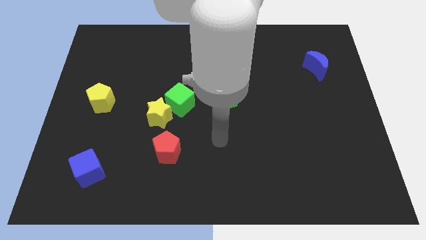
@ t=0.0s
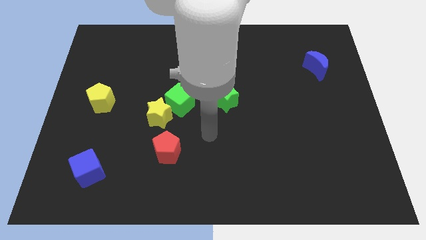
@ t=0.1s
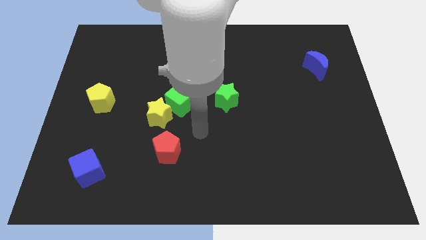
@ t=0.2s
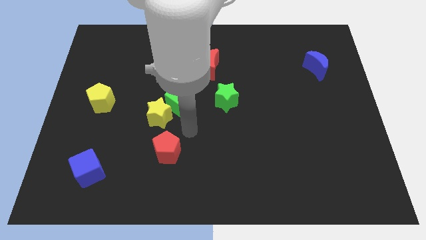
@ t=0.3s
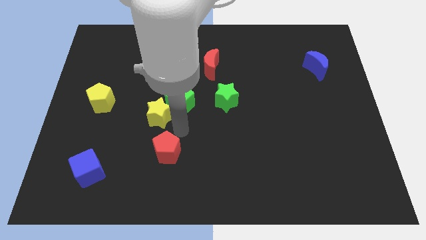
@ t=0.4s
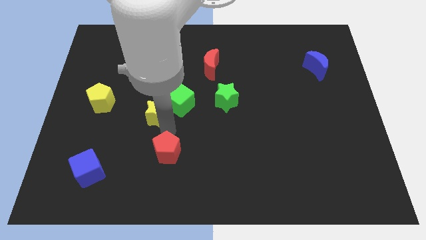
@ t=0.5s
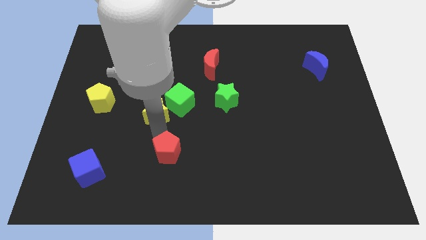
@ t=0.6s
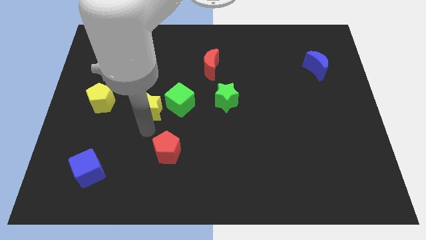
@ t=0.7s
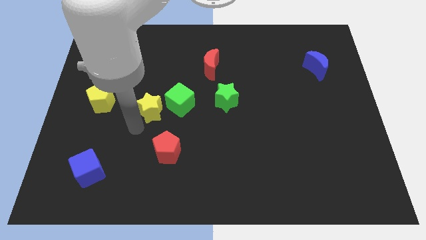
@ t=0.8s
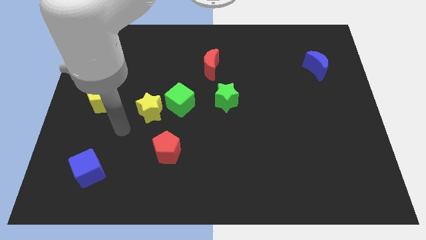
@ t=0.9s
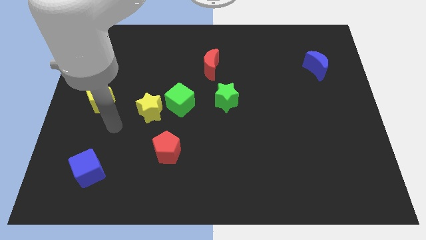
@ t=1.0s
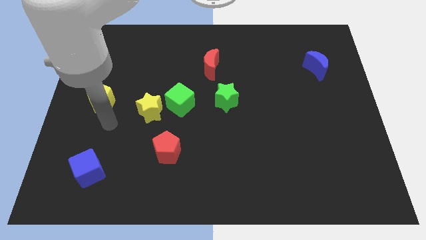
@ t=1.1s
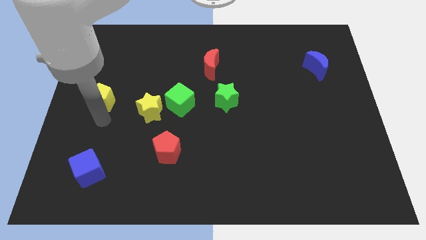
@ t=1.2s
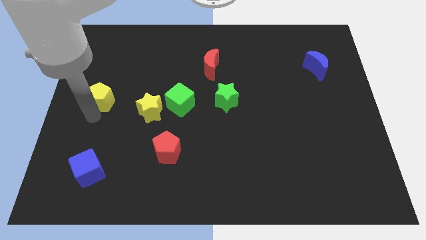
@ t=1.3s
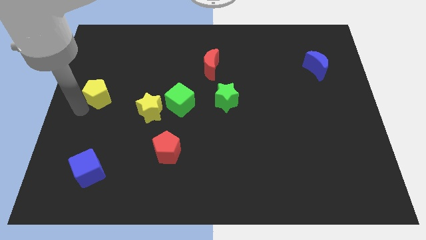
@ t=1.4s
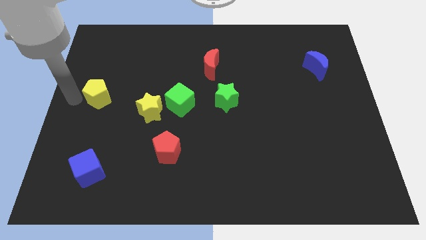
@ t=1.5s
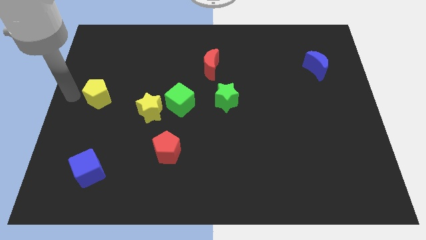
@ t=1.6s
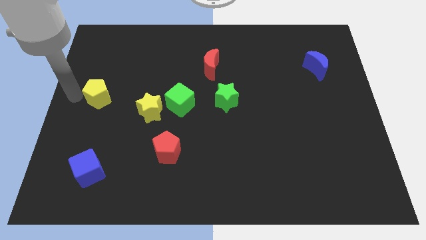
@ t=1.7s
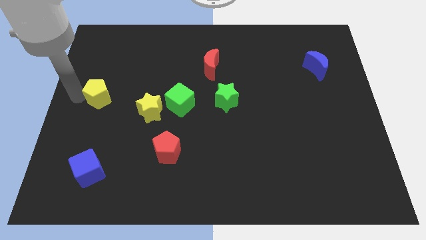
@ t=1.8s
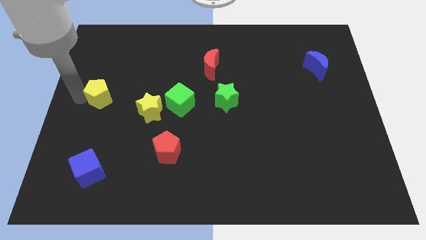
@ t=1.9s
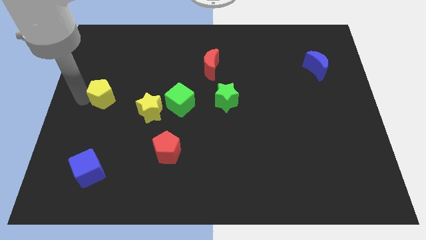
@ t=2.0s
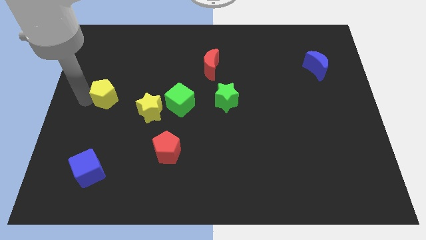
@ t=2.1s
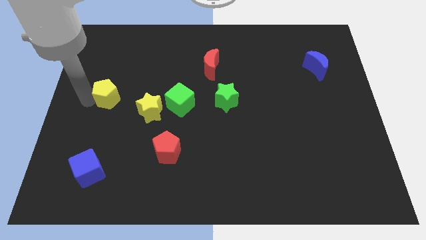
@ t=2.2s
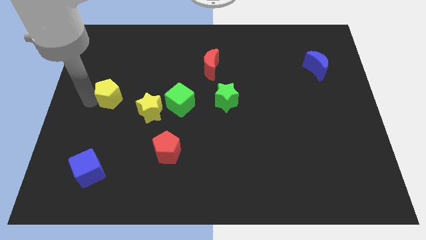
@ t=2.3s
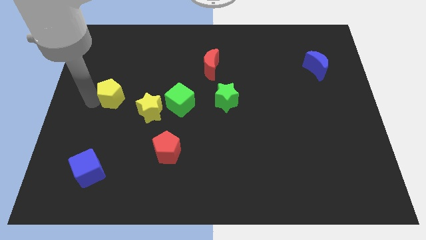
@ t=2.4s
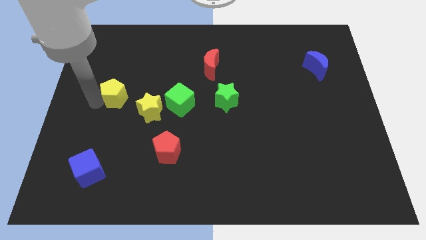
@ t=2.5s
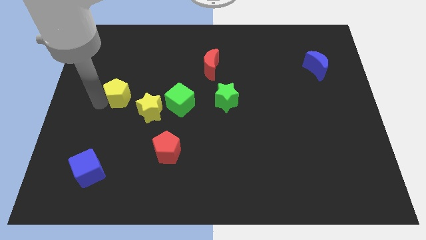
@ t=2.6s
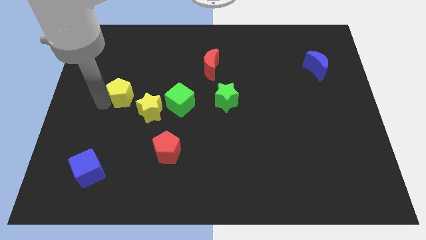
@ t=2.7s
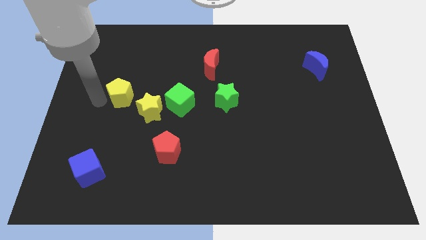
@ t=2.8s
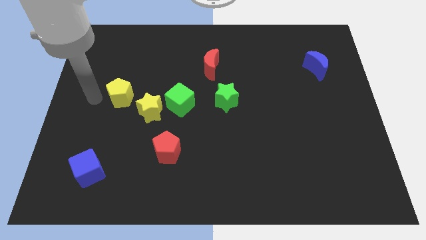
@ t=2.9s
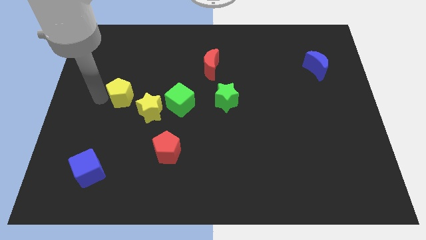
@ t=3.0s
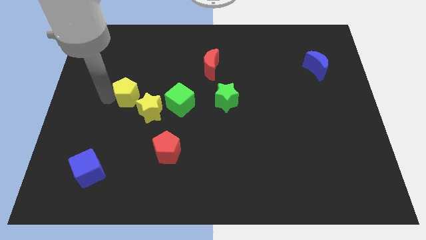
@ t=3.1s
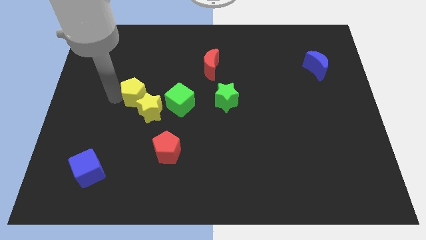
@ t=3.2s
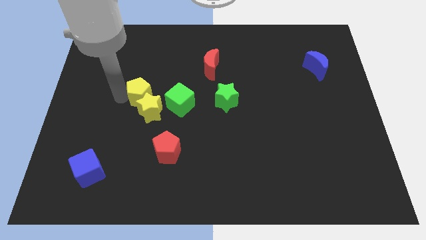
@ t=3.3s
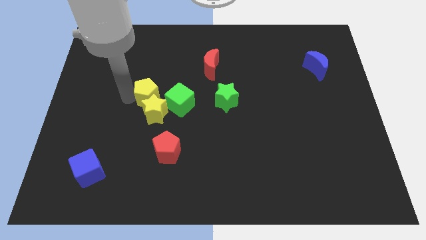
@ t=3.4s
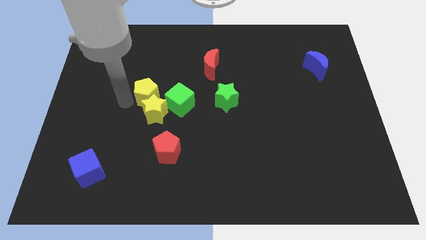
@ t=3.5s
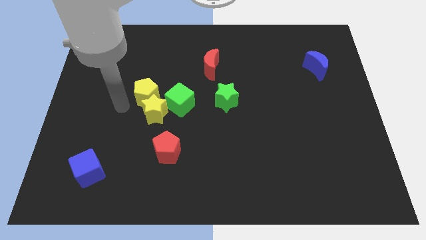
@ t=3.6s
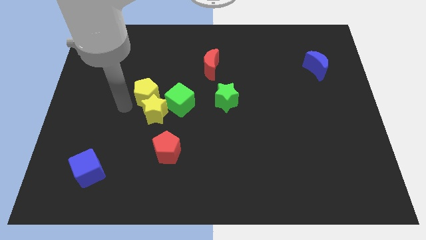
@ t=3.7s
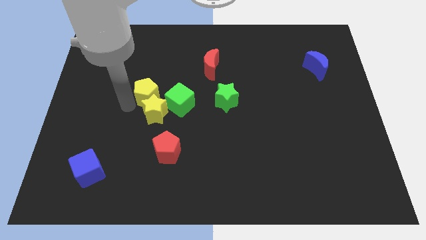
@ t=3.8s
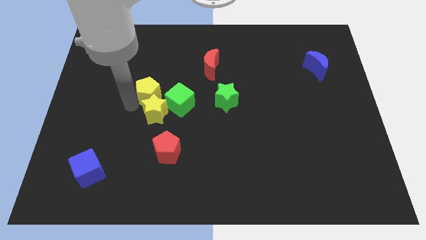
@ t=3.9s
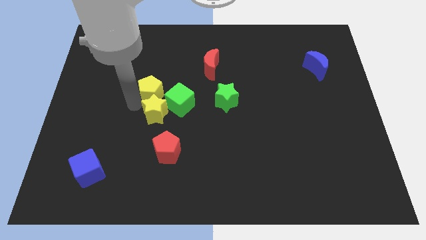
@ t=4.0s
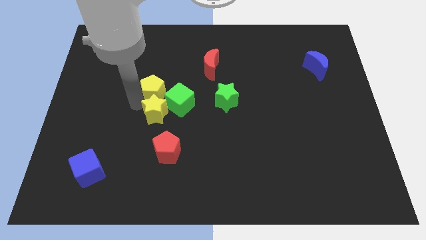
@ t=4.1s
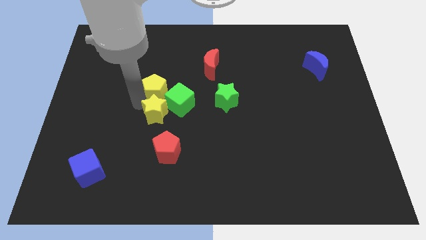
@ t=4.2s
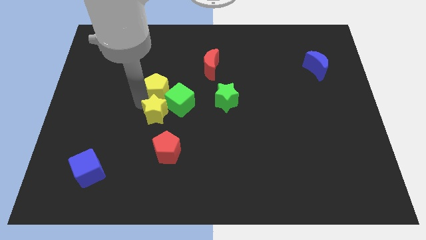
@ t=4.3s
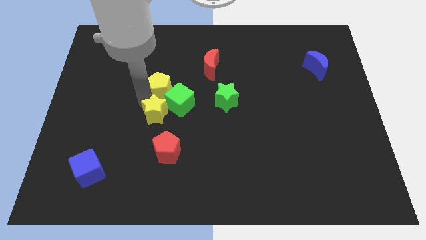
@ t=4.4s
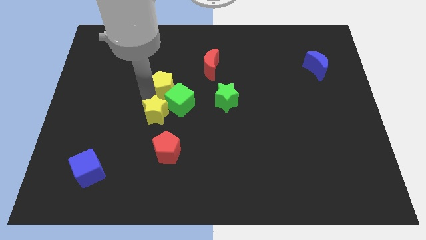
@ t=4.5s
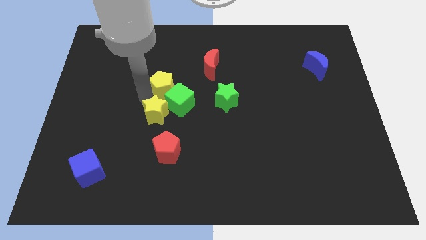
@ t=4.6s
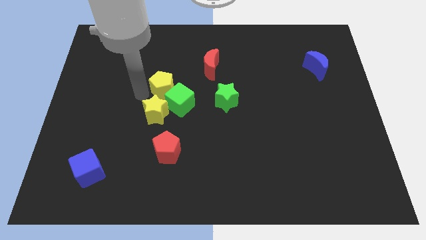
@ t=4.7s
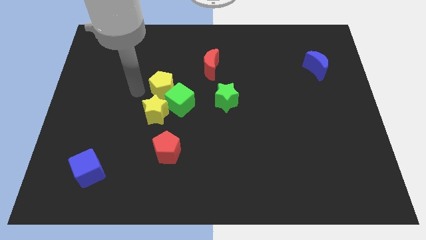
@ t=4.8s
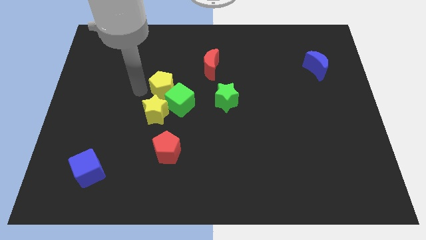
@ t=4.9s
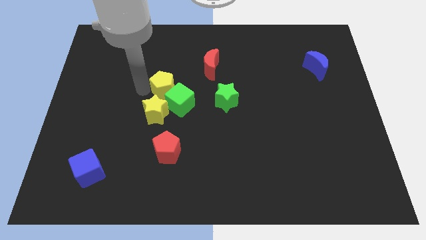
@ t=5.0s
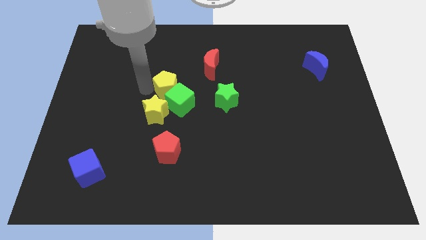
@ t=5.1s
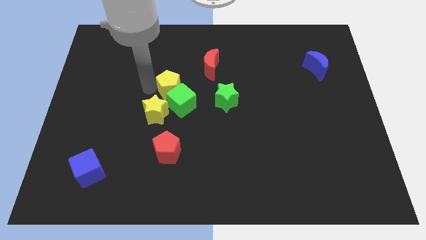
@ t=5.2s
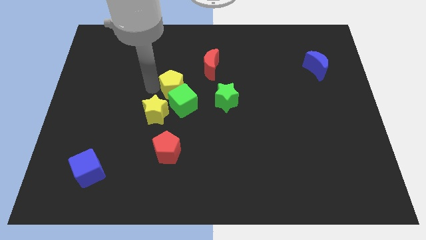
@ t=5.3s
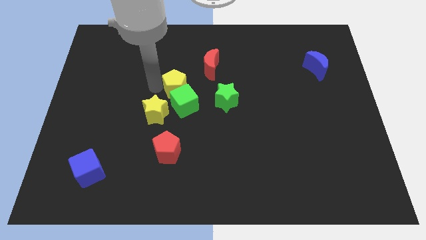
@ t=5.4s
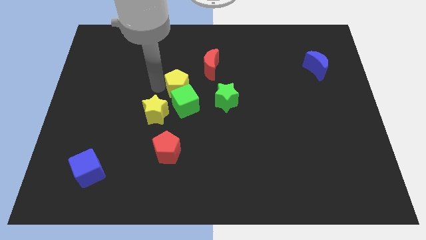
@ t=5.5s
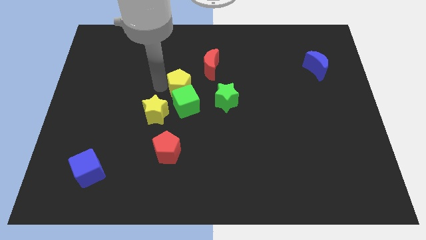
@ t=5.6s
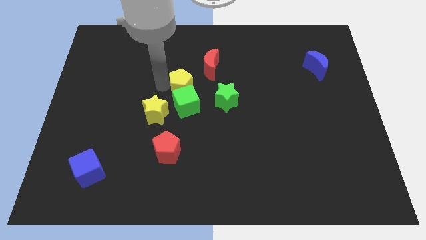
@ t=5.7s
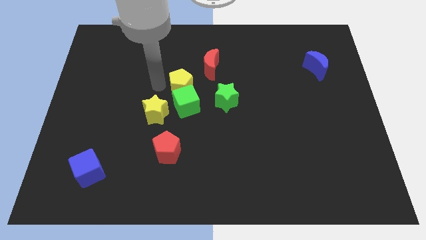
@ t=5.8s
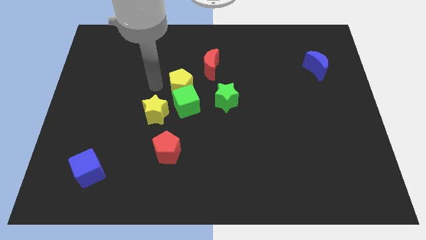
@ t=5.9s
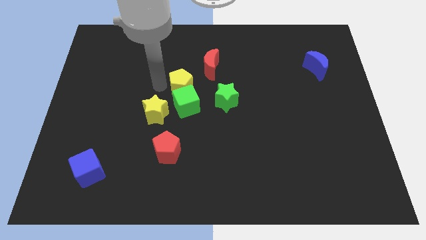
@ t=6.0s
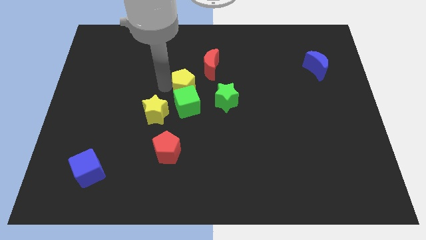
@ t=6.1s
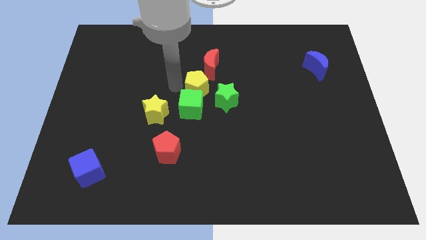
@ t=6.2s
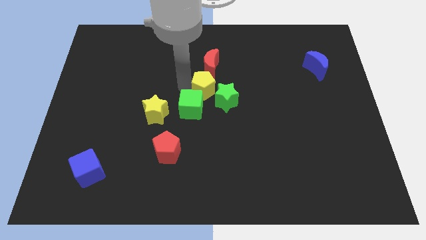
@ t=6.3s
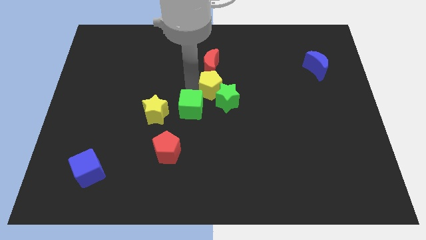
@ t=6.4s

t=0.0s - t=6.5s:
move the yellow pentagon close to the green star

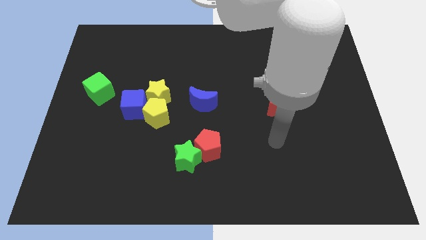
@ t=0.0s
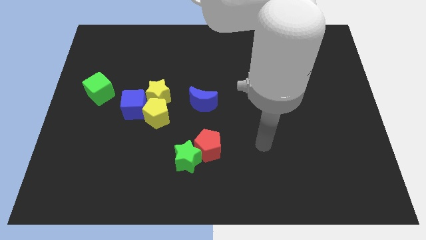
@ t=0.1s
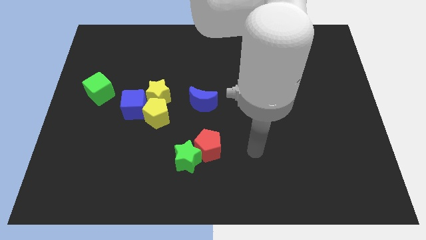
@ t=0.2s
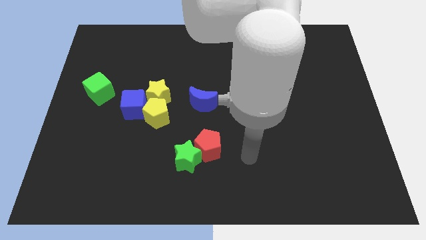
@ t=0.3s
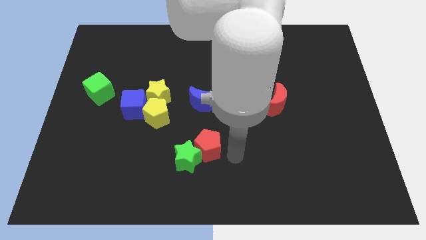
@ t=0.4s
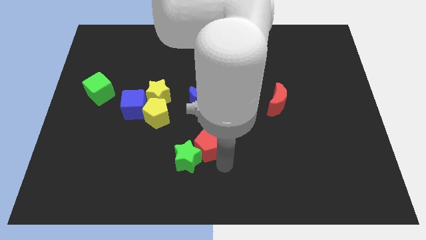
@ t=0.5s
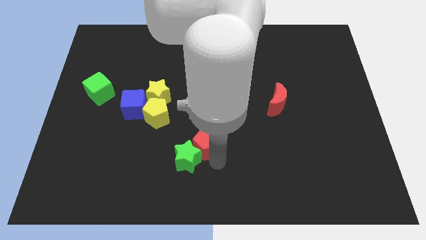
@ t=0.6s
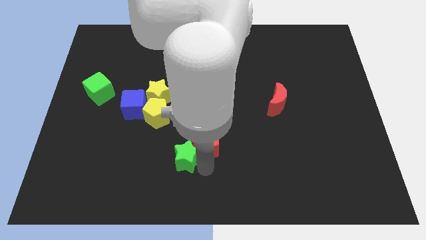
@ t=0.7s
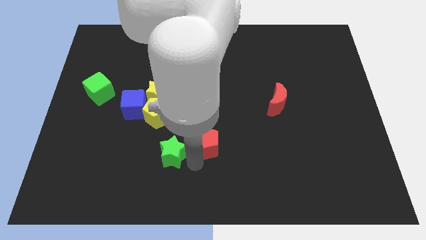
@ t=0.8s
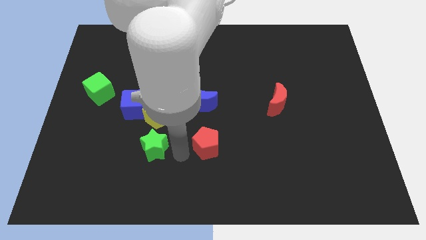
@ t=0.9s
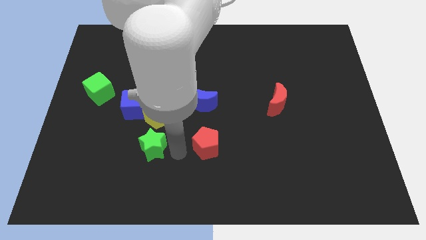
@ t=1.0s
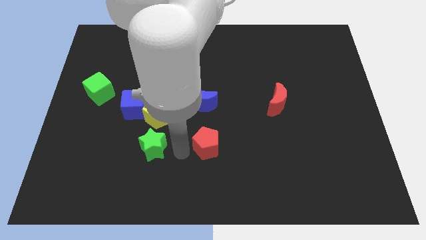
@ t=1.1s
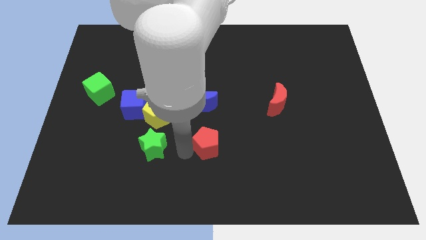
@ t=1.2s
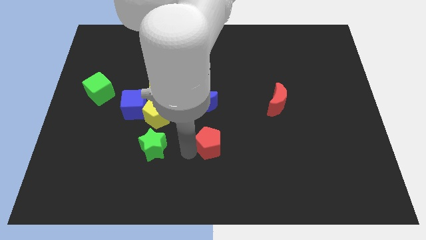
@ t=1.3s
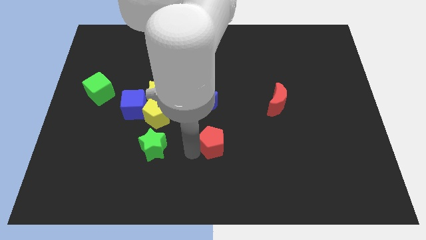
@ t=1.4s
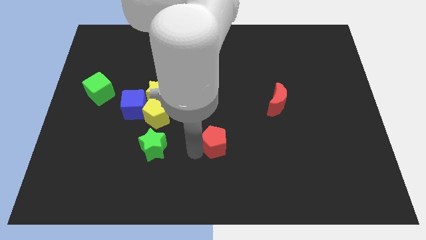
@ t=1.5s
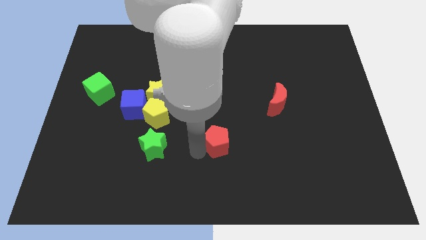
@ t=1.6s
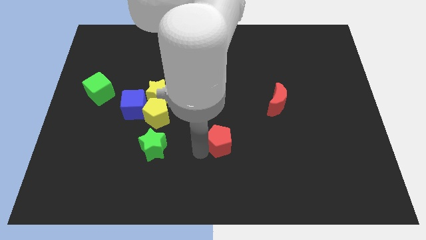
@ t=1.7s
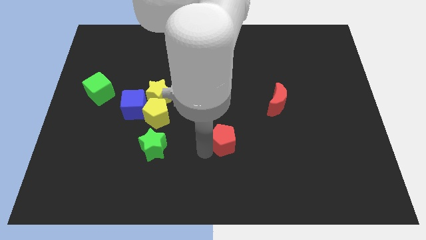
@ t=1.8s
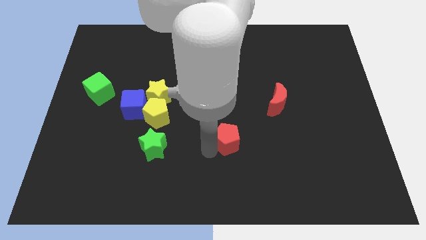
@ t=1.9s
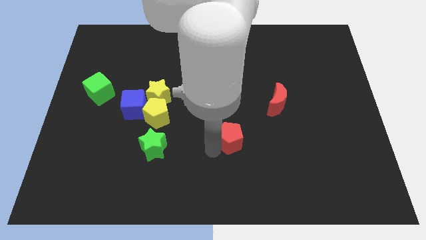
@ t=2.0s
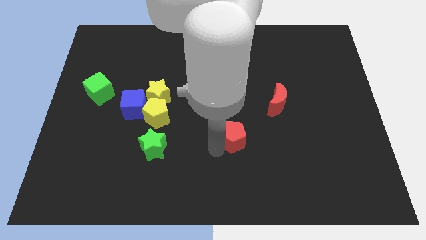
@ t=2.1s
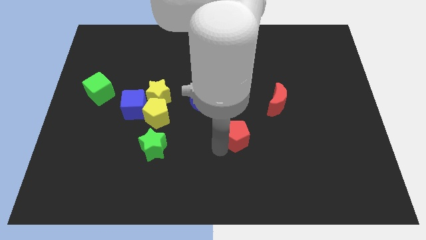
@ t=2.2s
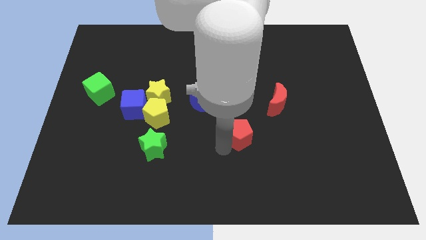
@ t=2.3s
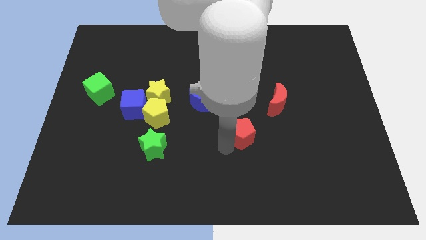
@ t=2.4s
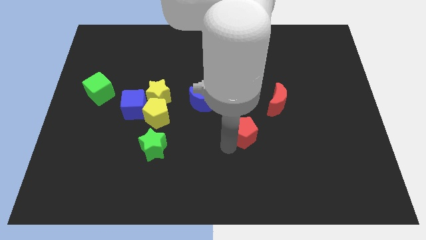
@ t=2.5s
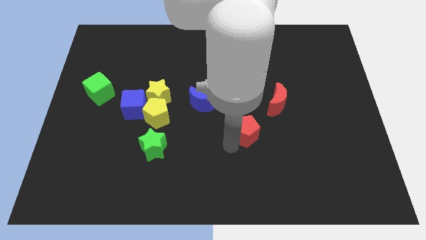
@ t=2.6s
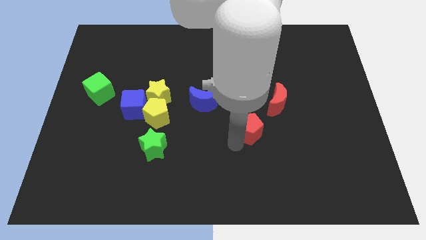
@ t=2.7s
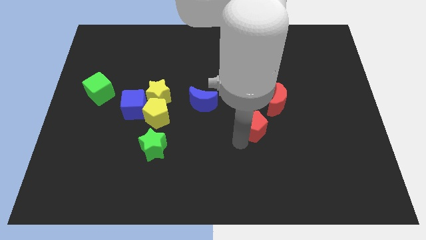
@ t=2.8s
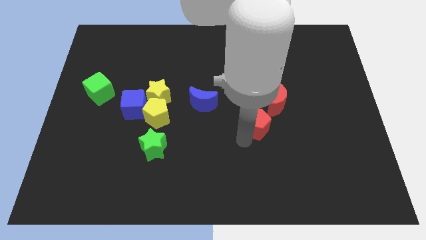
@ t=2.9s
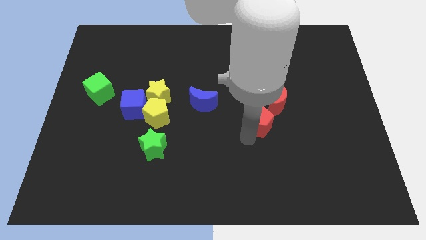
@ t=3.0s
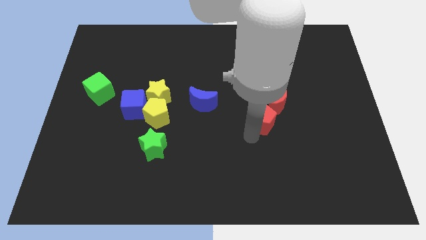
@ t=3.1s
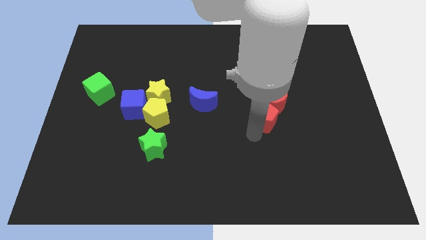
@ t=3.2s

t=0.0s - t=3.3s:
slide the red pentagon towards the red moon
